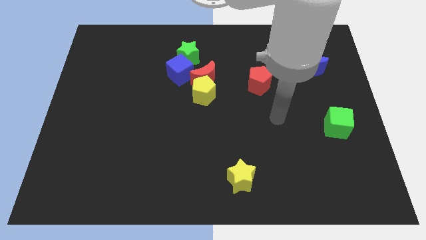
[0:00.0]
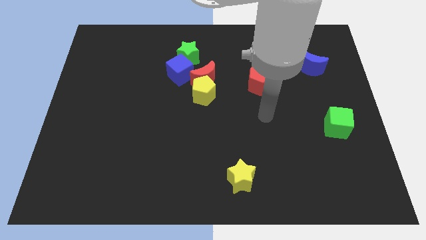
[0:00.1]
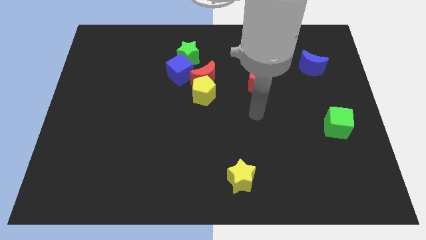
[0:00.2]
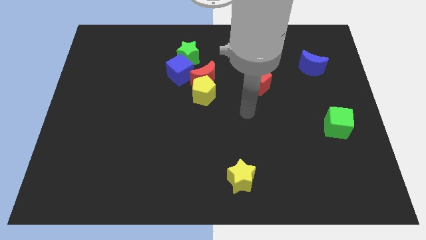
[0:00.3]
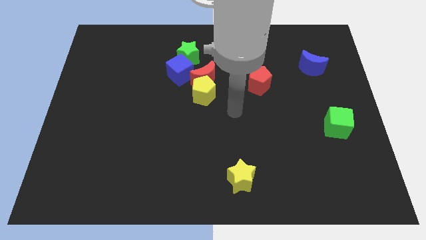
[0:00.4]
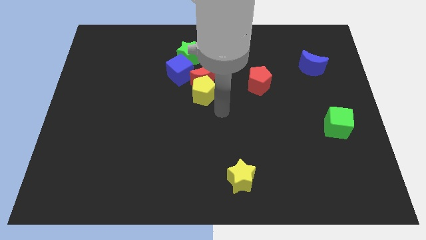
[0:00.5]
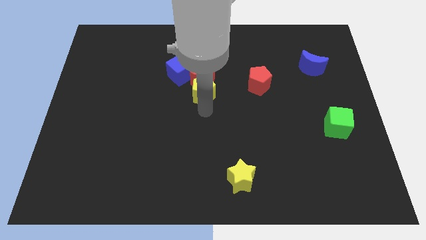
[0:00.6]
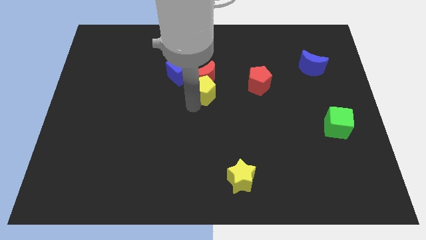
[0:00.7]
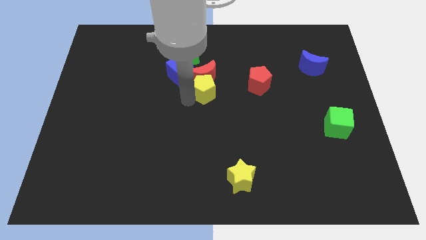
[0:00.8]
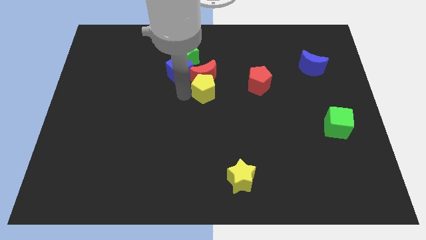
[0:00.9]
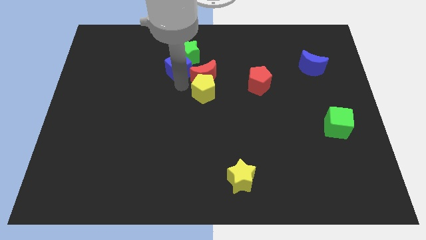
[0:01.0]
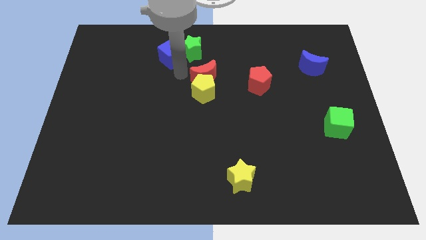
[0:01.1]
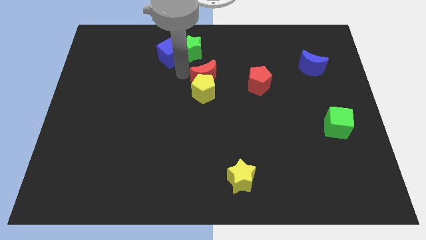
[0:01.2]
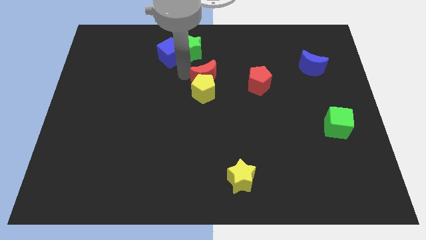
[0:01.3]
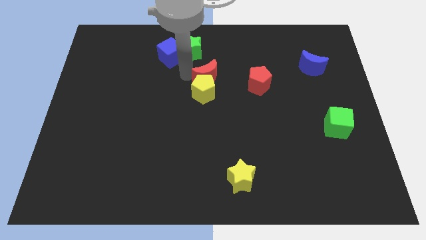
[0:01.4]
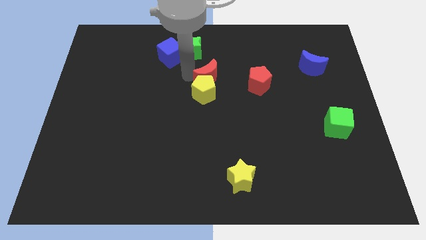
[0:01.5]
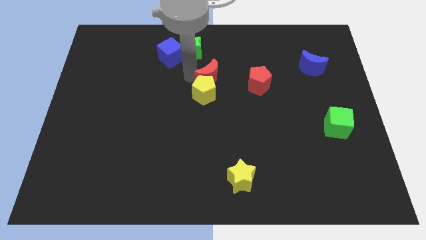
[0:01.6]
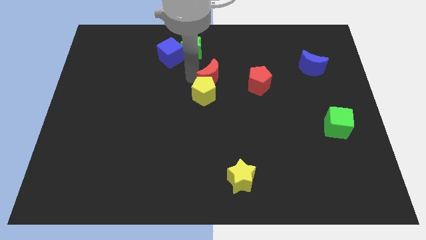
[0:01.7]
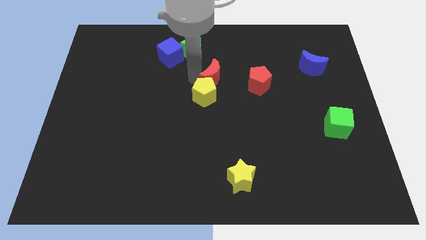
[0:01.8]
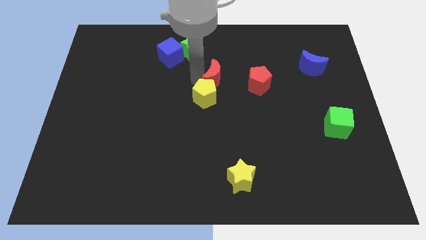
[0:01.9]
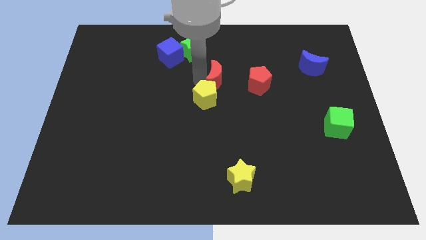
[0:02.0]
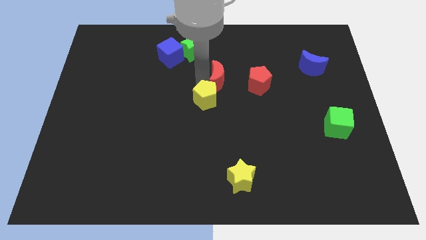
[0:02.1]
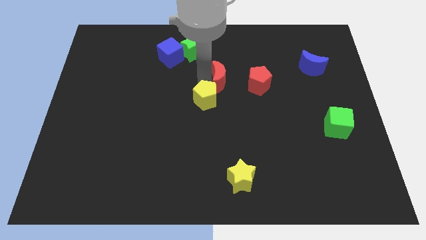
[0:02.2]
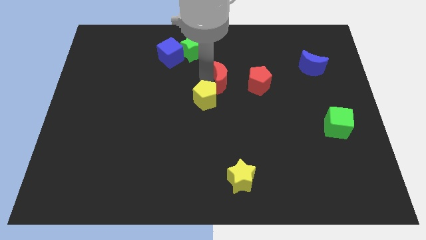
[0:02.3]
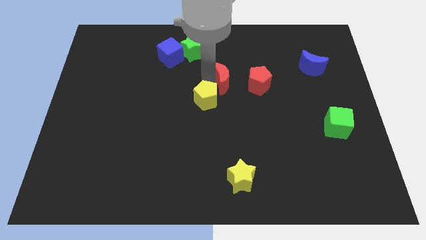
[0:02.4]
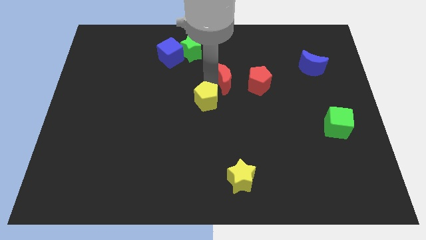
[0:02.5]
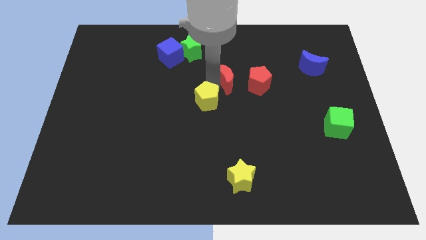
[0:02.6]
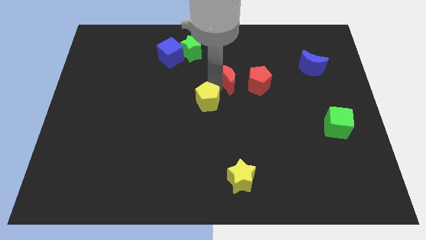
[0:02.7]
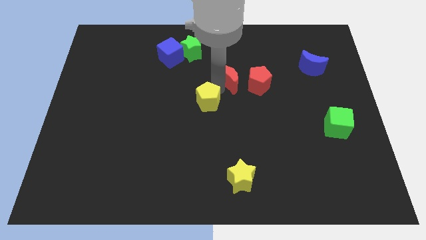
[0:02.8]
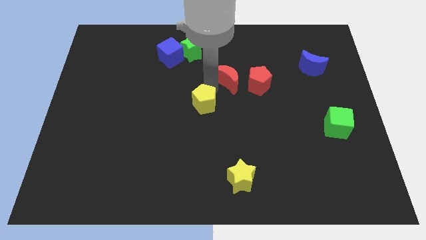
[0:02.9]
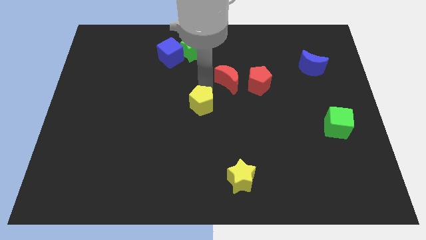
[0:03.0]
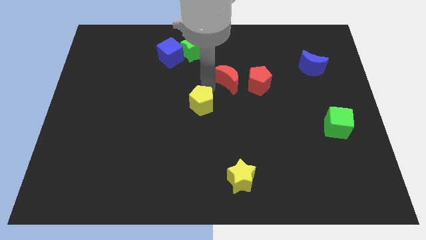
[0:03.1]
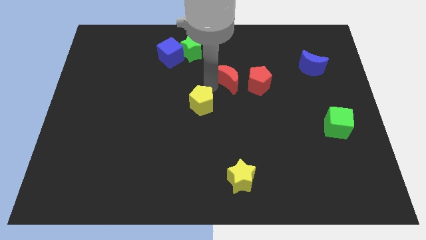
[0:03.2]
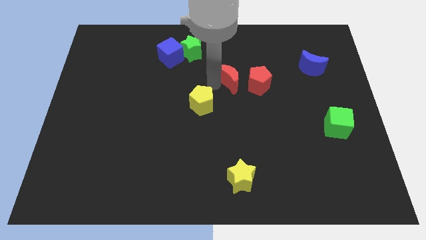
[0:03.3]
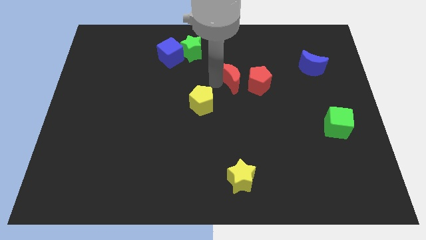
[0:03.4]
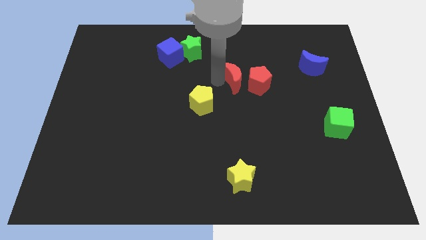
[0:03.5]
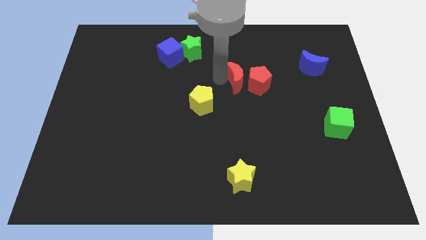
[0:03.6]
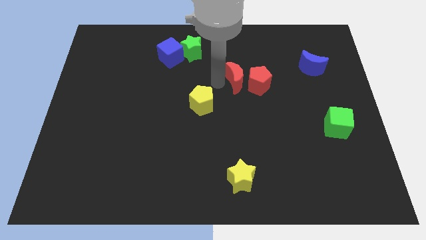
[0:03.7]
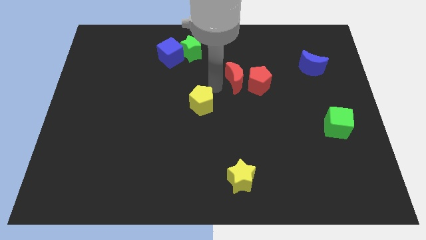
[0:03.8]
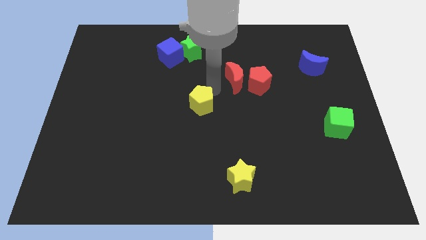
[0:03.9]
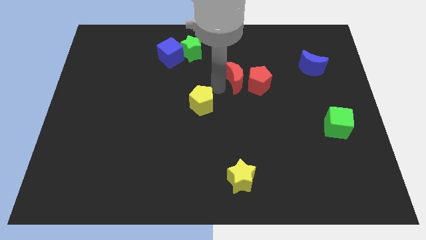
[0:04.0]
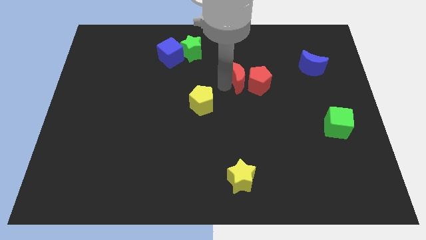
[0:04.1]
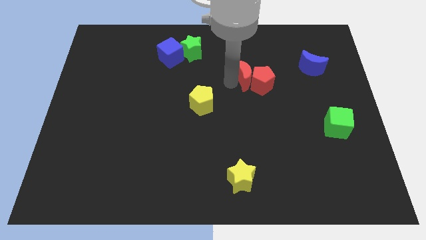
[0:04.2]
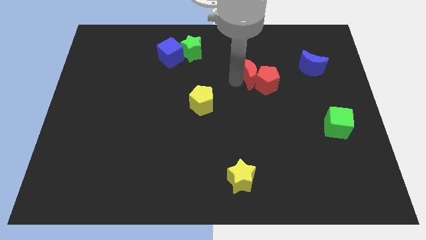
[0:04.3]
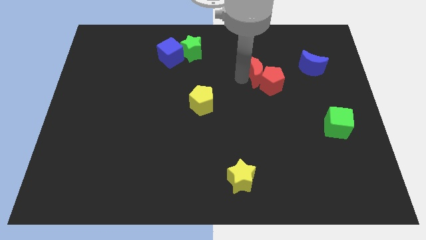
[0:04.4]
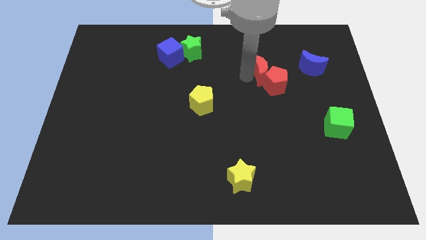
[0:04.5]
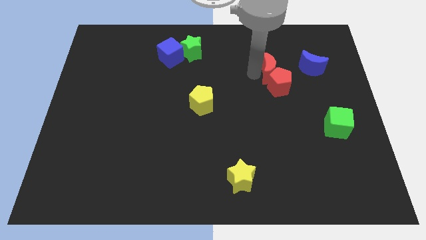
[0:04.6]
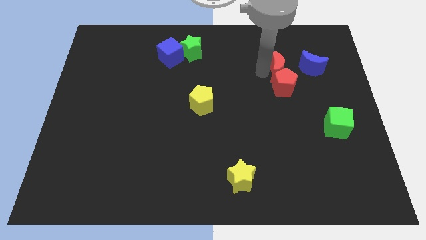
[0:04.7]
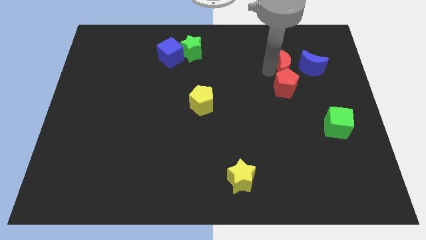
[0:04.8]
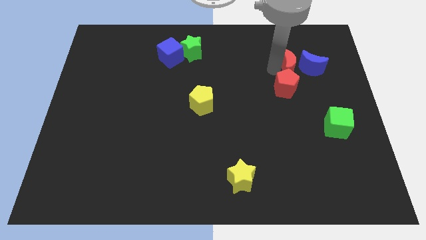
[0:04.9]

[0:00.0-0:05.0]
put the red moon next to the blue moon

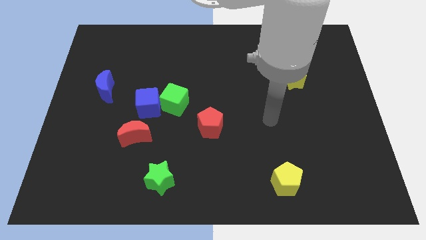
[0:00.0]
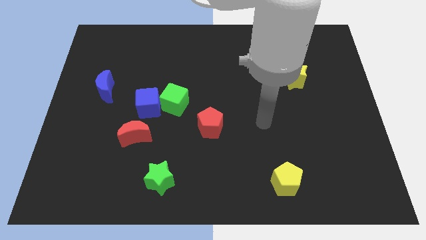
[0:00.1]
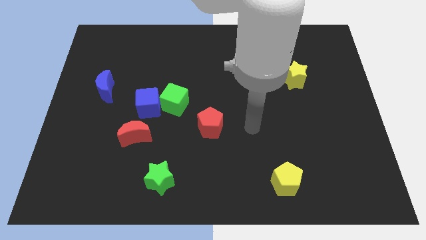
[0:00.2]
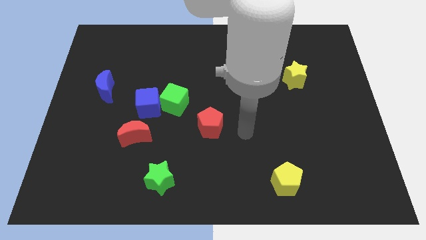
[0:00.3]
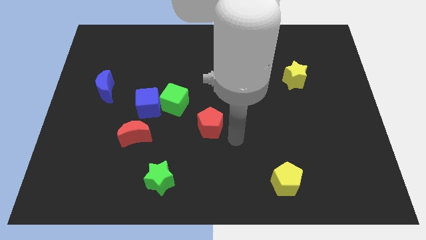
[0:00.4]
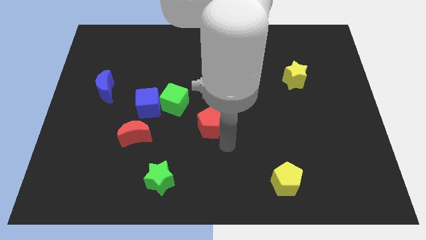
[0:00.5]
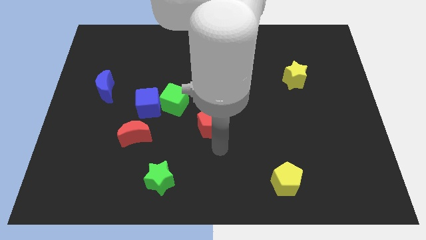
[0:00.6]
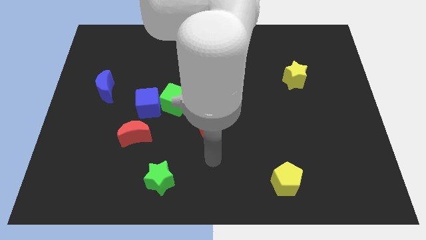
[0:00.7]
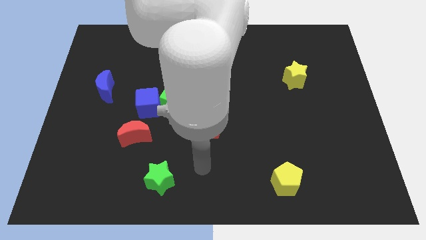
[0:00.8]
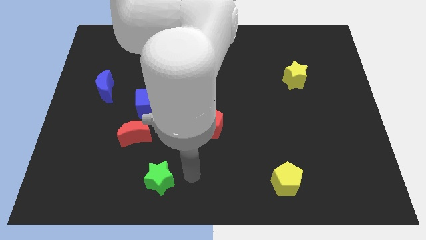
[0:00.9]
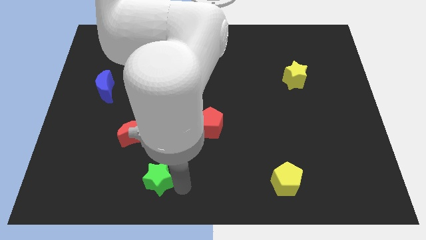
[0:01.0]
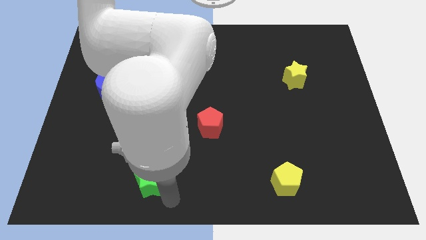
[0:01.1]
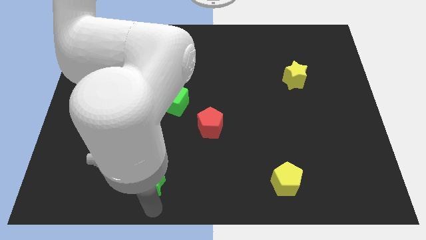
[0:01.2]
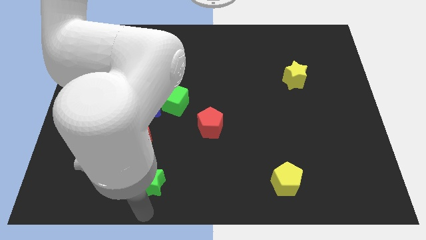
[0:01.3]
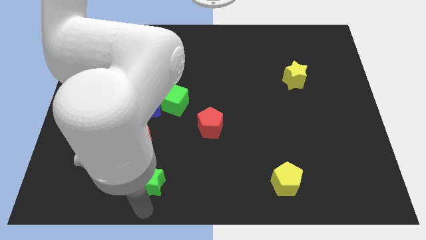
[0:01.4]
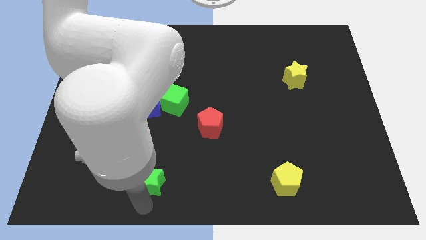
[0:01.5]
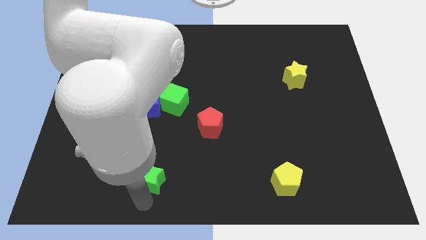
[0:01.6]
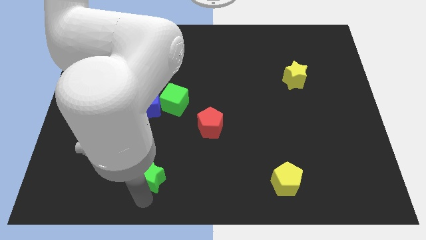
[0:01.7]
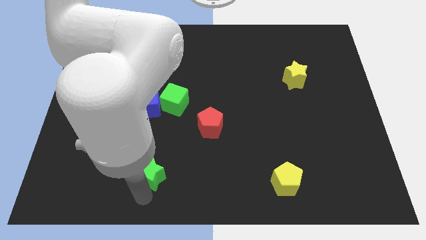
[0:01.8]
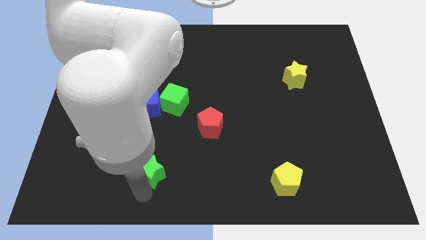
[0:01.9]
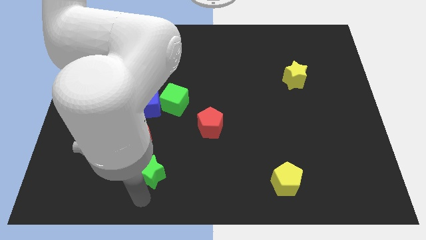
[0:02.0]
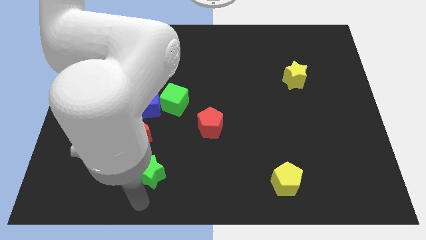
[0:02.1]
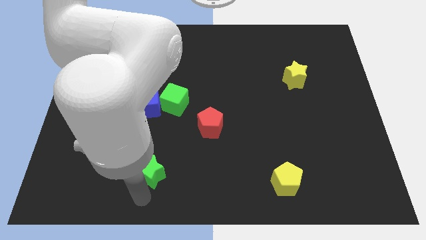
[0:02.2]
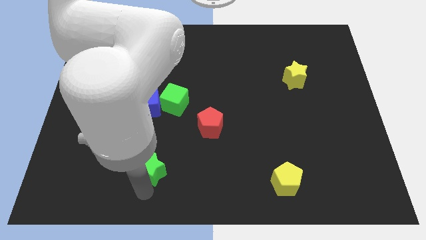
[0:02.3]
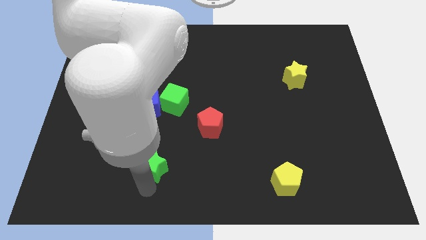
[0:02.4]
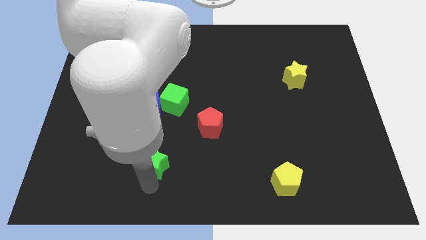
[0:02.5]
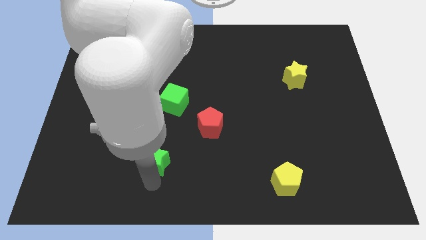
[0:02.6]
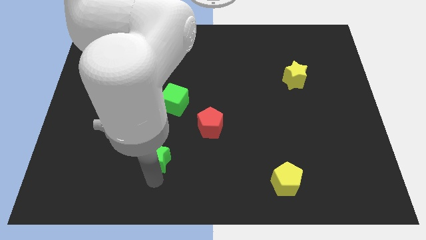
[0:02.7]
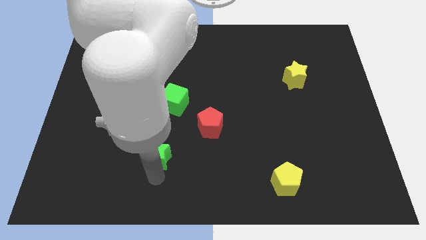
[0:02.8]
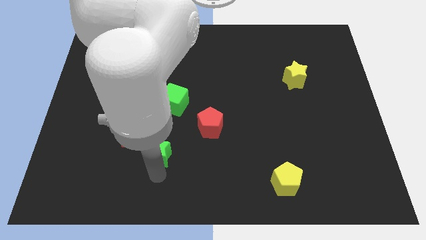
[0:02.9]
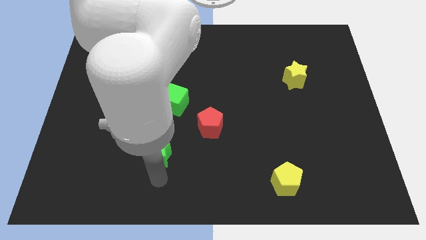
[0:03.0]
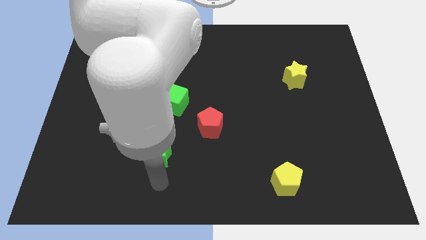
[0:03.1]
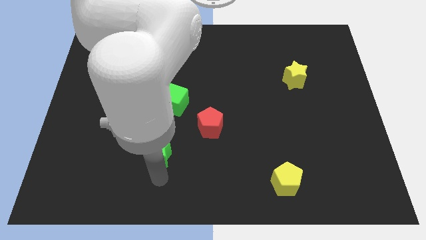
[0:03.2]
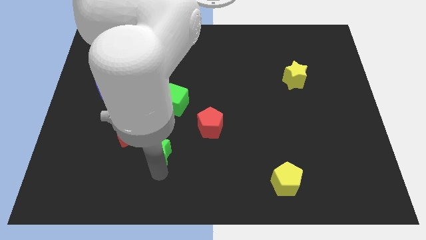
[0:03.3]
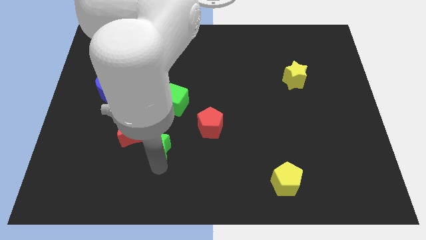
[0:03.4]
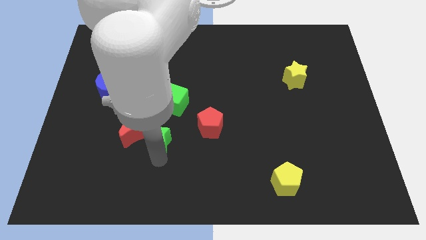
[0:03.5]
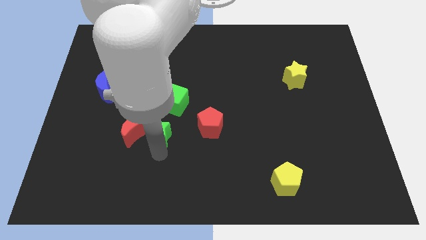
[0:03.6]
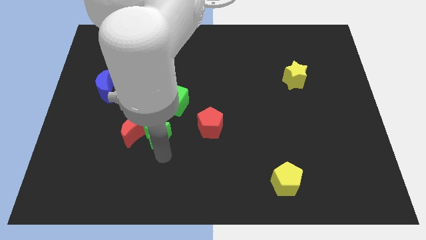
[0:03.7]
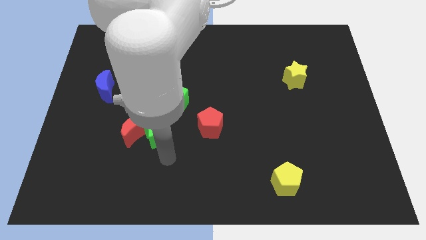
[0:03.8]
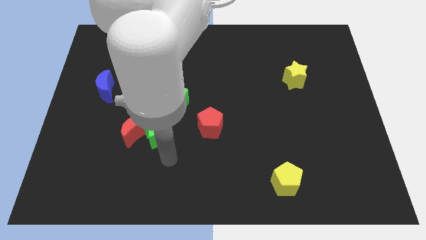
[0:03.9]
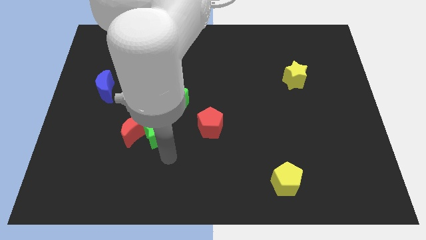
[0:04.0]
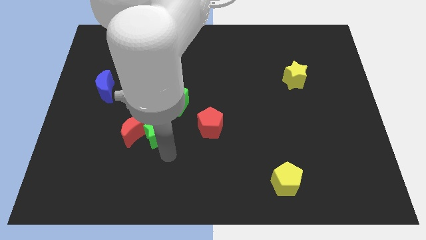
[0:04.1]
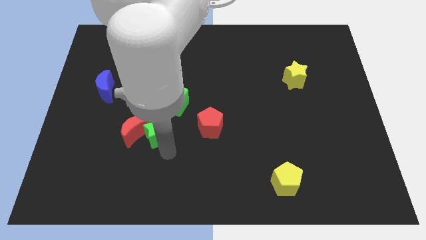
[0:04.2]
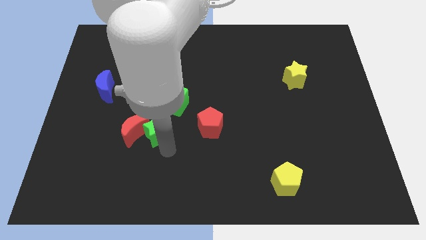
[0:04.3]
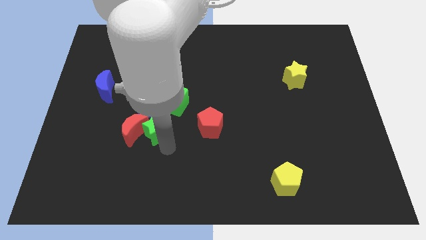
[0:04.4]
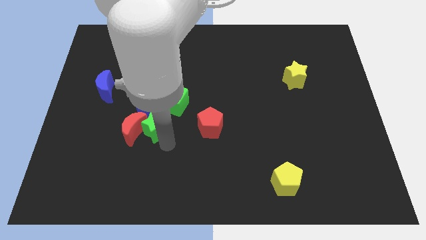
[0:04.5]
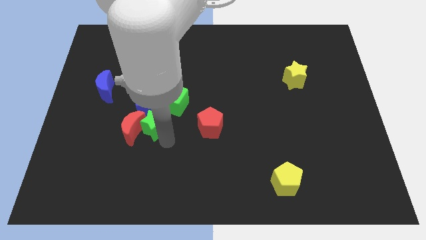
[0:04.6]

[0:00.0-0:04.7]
slide the green star close to the blue cube
